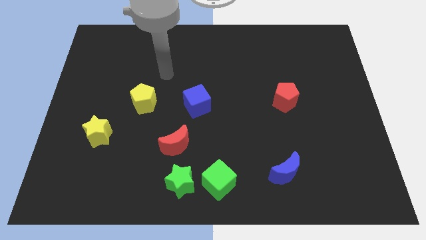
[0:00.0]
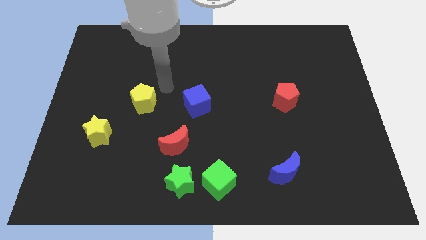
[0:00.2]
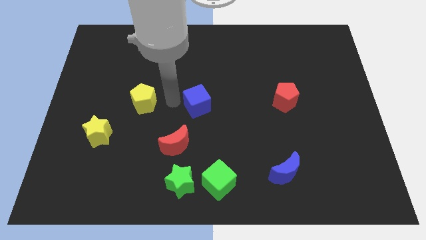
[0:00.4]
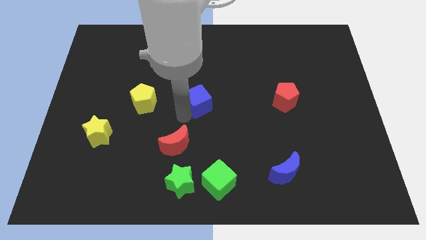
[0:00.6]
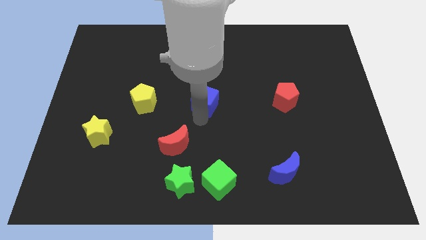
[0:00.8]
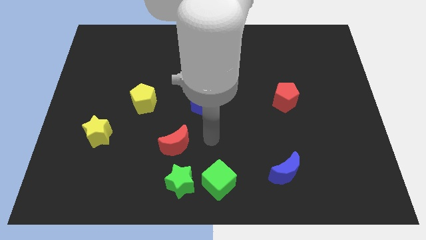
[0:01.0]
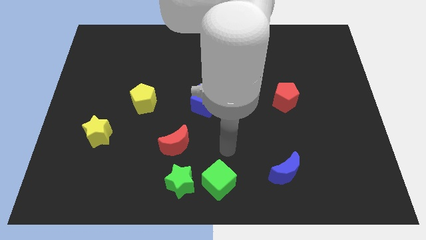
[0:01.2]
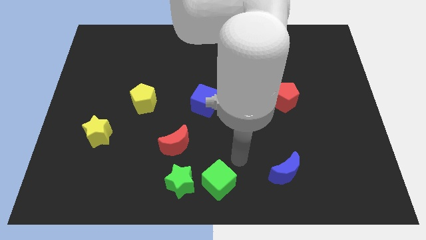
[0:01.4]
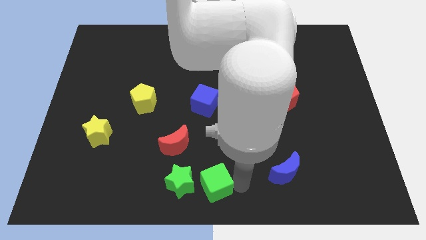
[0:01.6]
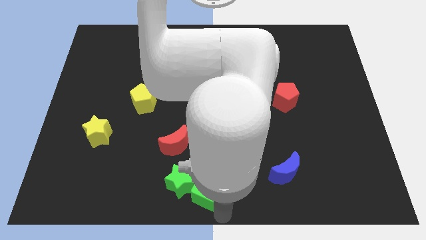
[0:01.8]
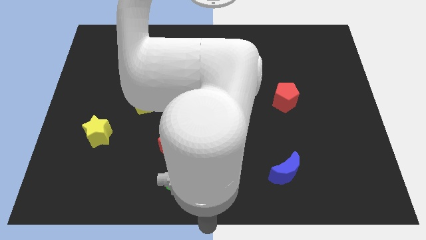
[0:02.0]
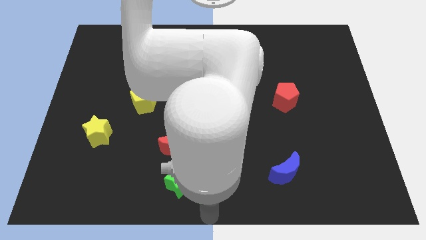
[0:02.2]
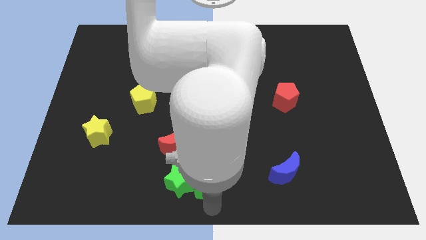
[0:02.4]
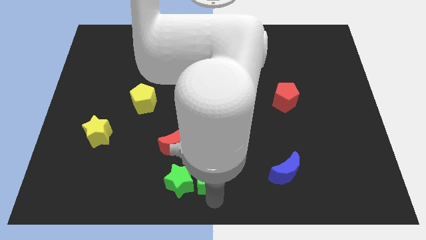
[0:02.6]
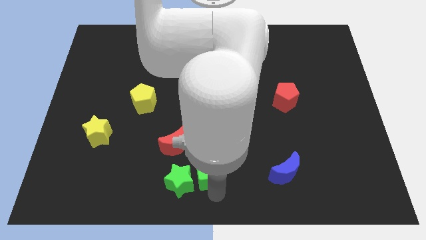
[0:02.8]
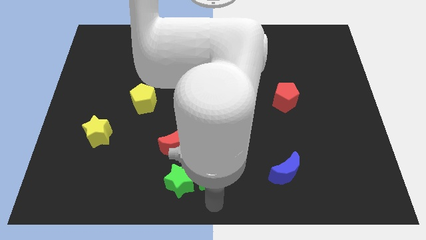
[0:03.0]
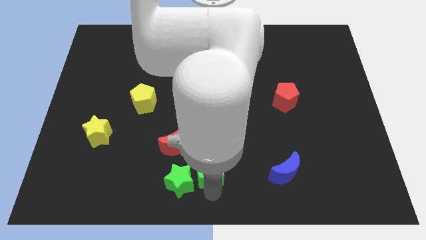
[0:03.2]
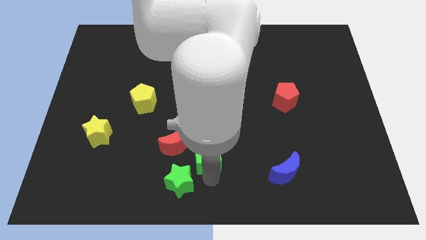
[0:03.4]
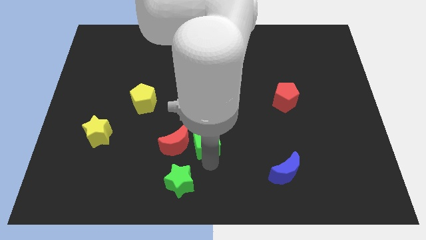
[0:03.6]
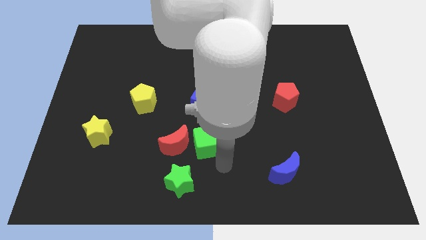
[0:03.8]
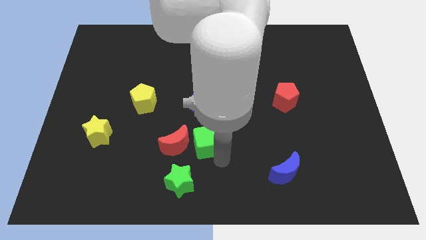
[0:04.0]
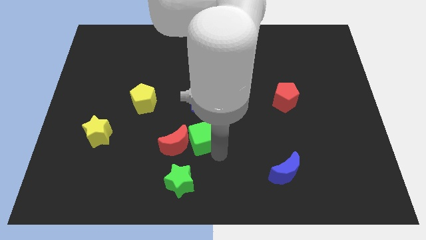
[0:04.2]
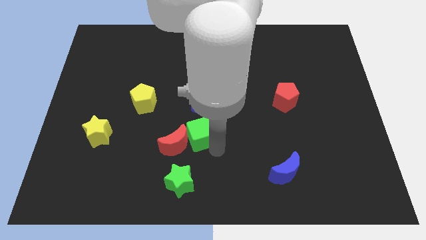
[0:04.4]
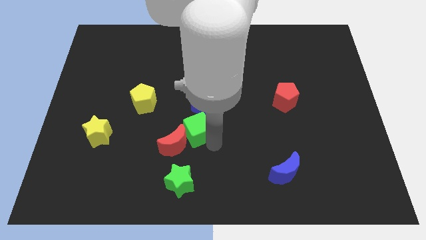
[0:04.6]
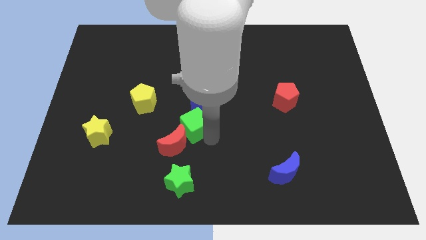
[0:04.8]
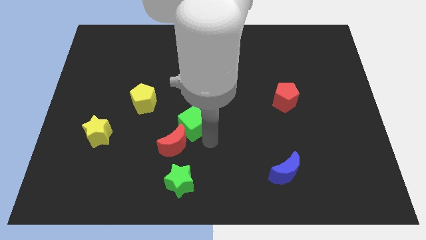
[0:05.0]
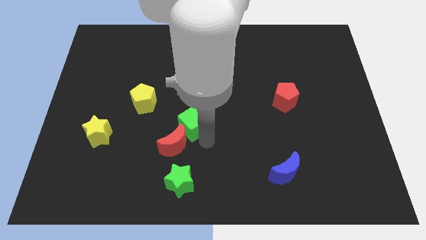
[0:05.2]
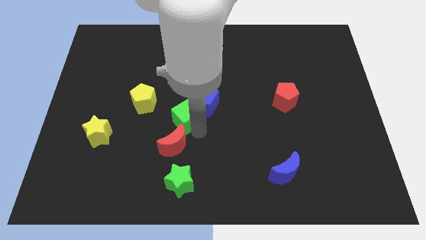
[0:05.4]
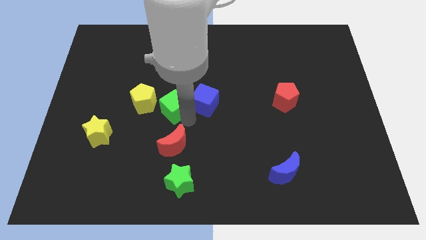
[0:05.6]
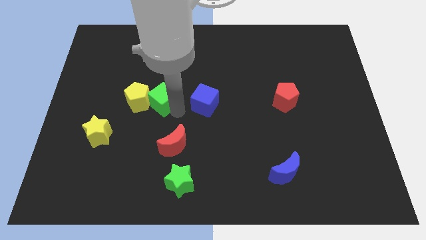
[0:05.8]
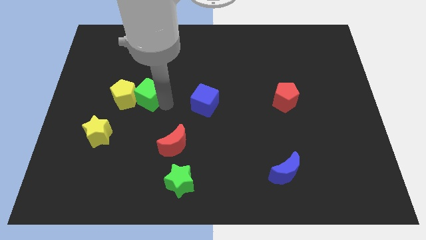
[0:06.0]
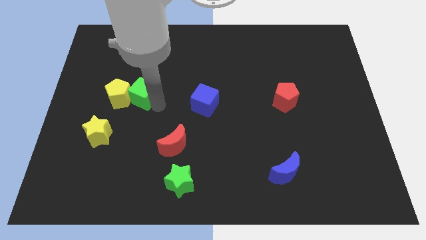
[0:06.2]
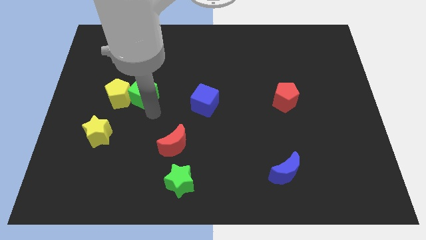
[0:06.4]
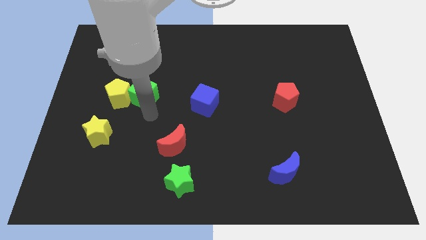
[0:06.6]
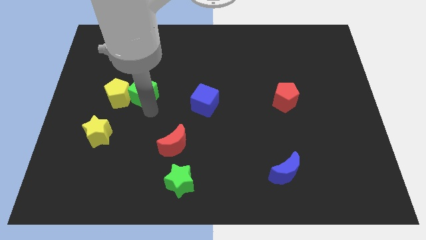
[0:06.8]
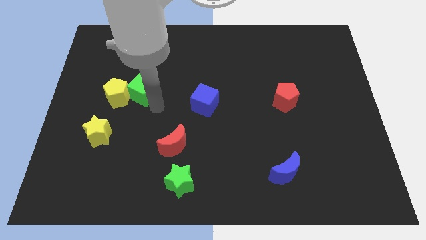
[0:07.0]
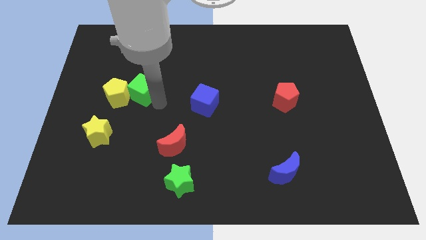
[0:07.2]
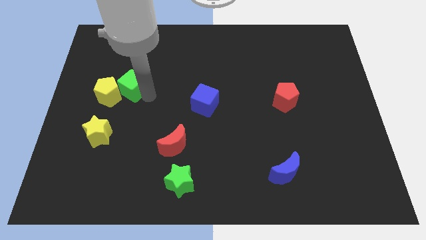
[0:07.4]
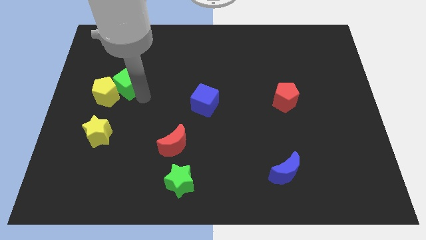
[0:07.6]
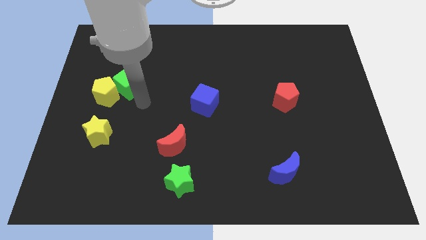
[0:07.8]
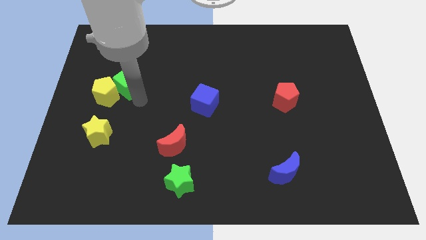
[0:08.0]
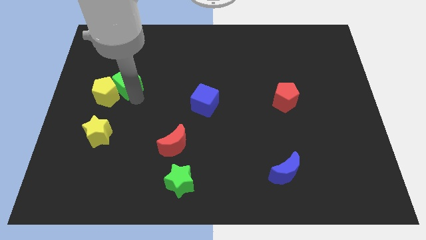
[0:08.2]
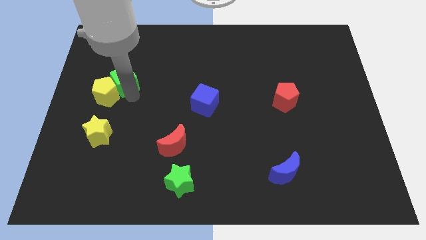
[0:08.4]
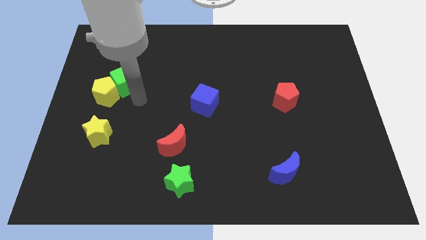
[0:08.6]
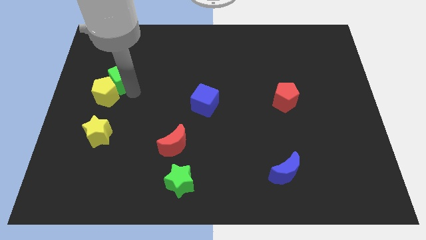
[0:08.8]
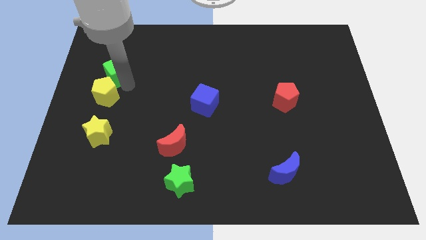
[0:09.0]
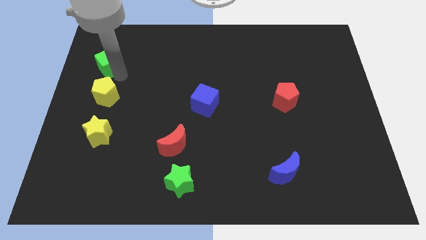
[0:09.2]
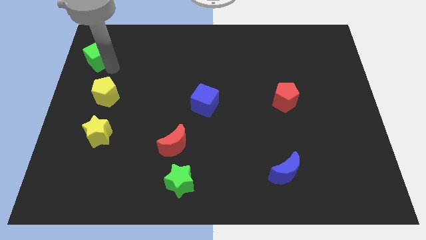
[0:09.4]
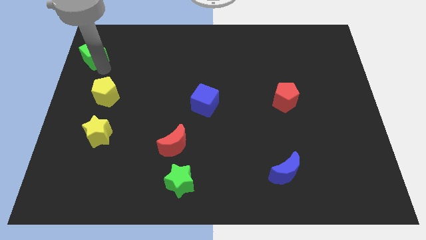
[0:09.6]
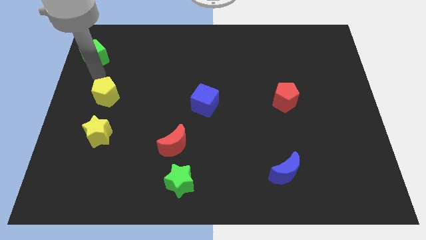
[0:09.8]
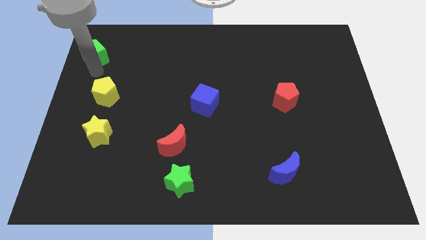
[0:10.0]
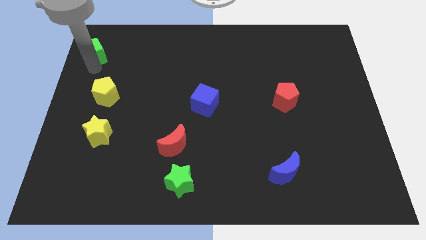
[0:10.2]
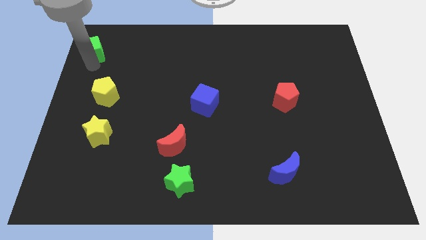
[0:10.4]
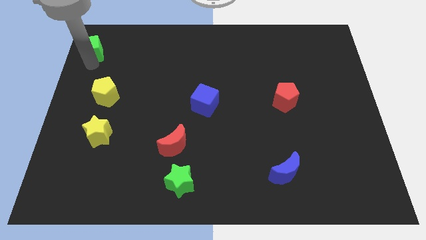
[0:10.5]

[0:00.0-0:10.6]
move the green cube to the upper left corner

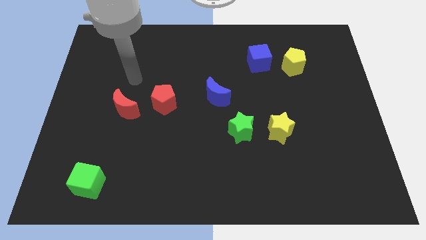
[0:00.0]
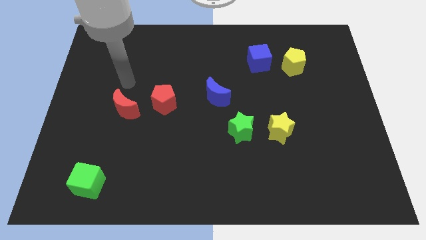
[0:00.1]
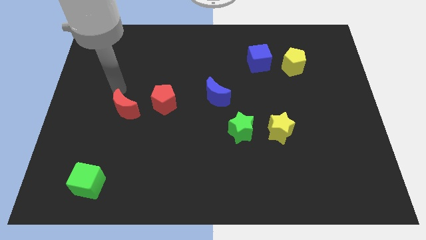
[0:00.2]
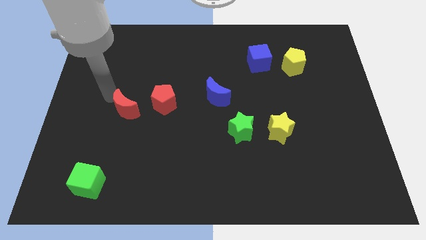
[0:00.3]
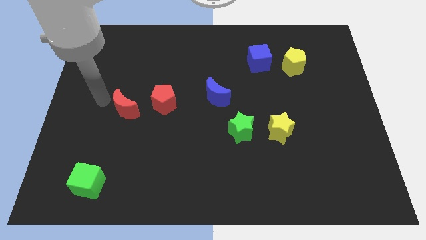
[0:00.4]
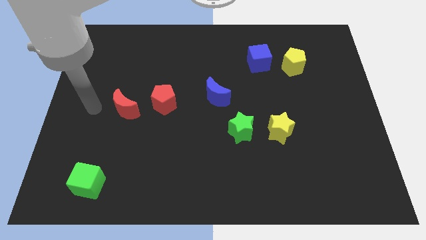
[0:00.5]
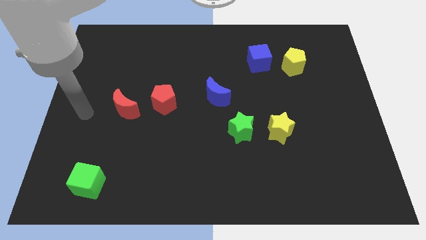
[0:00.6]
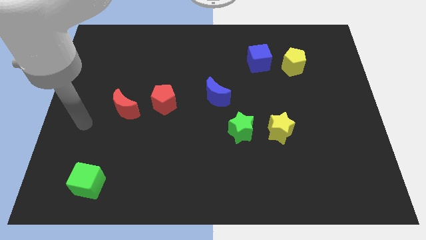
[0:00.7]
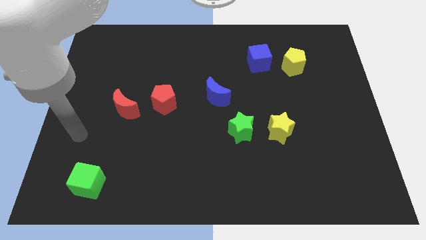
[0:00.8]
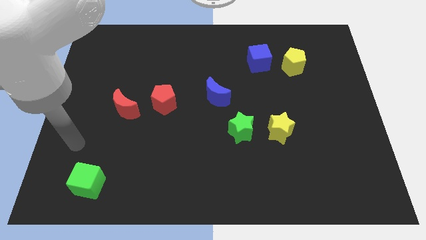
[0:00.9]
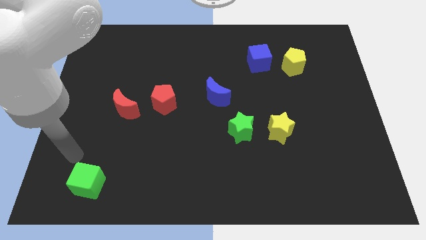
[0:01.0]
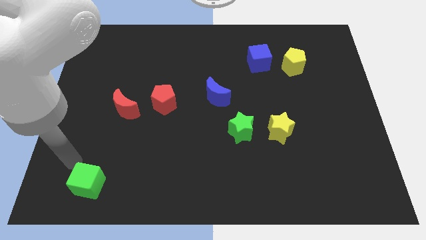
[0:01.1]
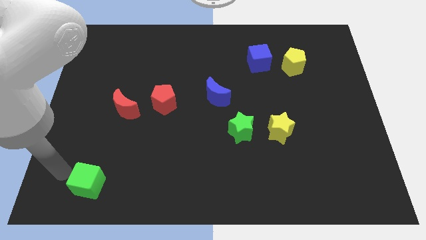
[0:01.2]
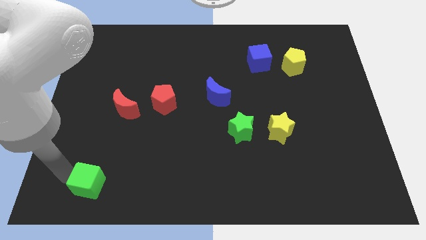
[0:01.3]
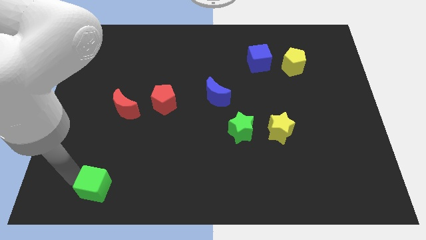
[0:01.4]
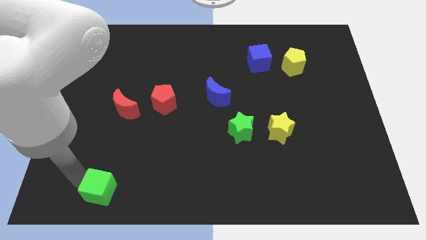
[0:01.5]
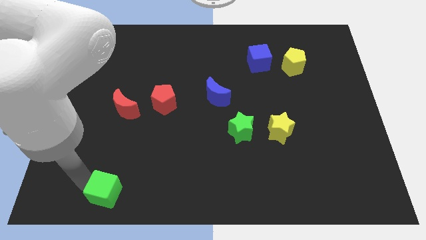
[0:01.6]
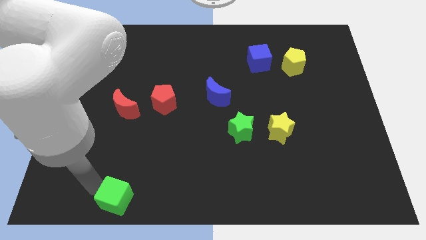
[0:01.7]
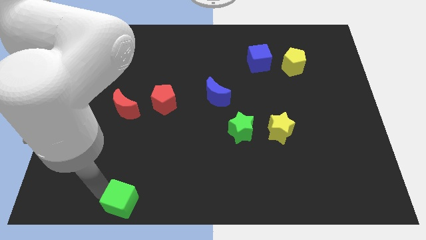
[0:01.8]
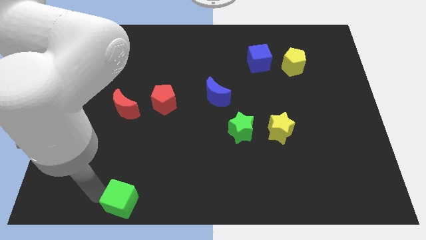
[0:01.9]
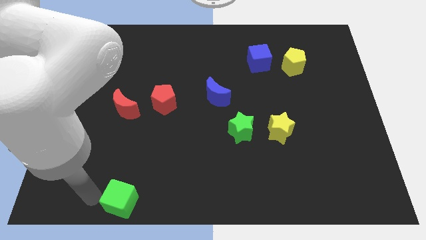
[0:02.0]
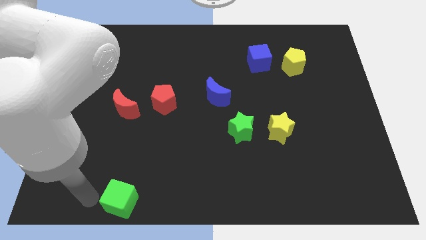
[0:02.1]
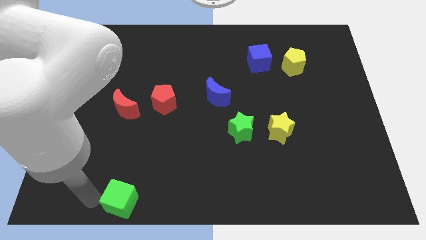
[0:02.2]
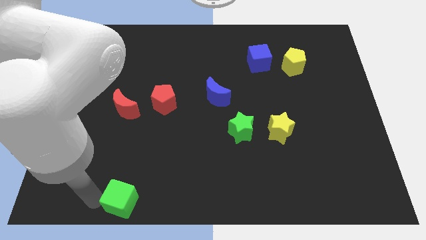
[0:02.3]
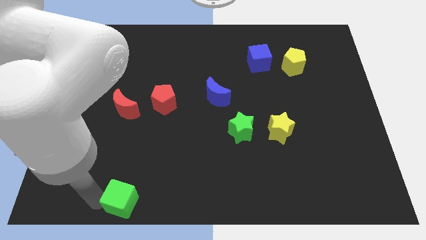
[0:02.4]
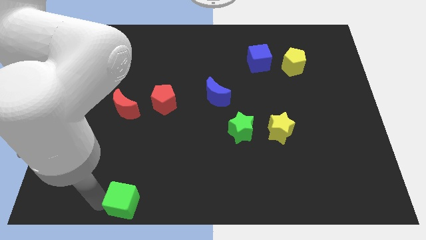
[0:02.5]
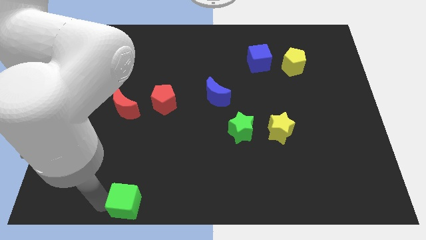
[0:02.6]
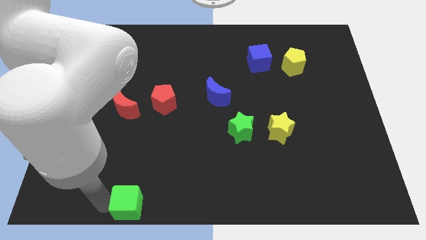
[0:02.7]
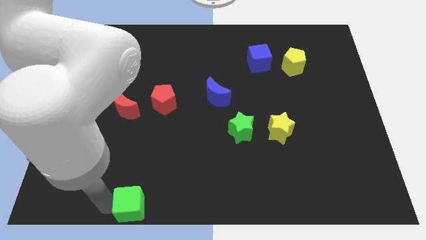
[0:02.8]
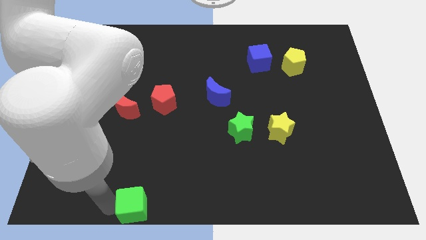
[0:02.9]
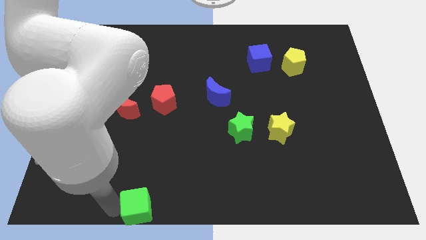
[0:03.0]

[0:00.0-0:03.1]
put the green cube to the bottom
